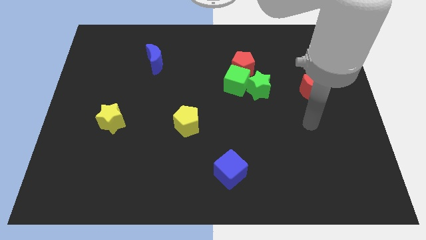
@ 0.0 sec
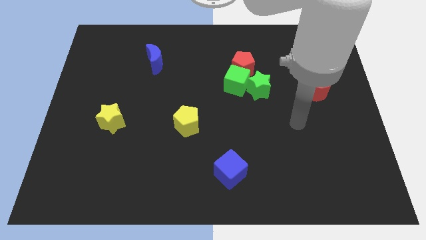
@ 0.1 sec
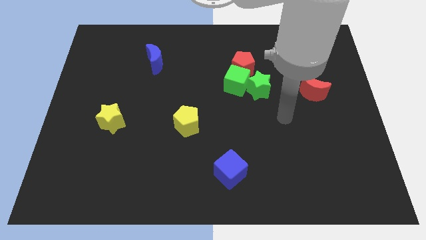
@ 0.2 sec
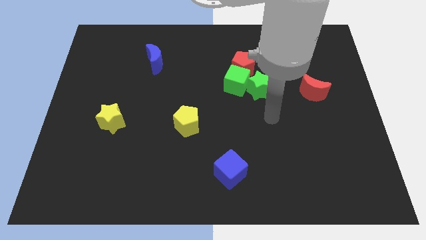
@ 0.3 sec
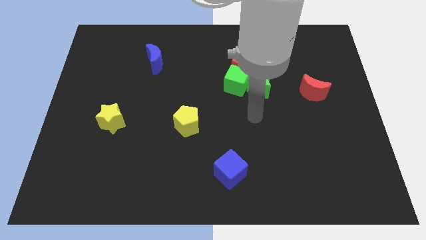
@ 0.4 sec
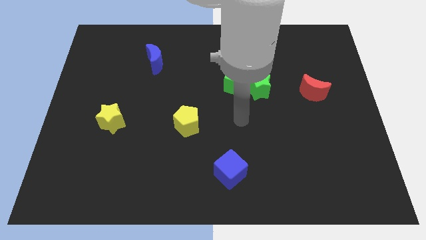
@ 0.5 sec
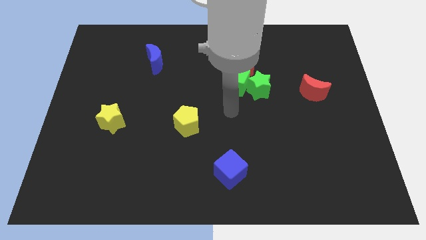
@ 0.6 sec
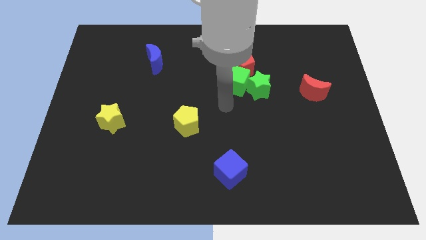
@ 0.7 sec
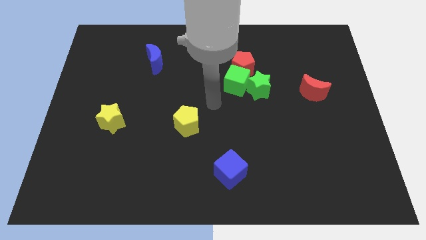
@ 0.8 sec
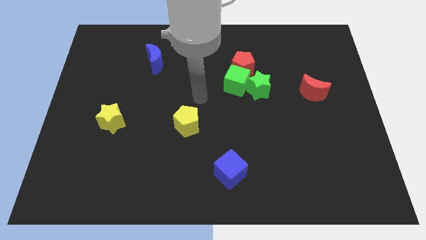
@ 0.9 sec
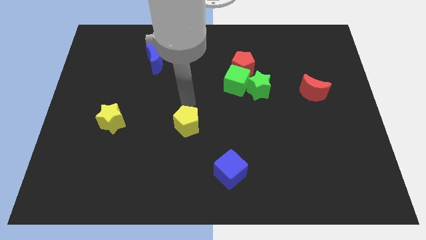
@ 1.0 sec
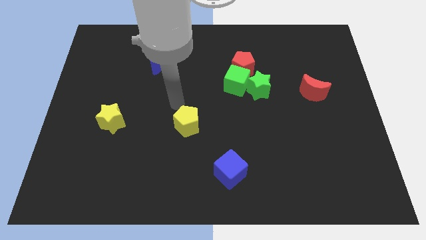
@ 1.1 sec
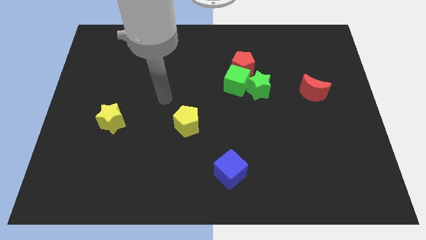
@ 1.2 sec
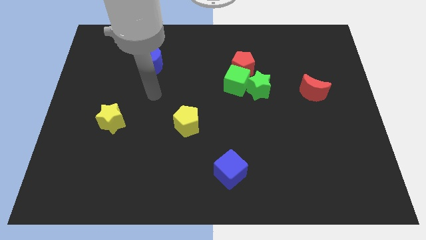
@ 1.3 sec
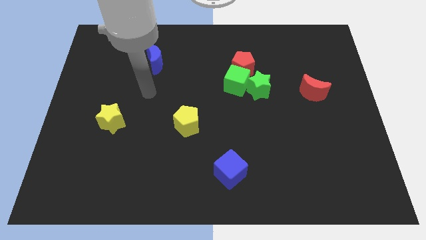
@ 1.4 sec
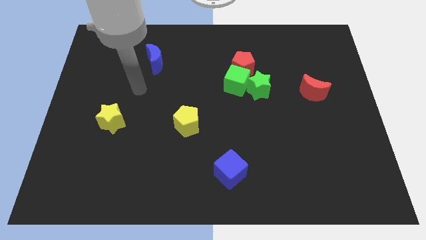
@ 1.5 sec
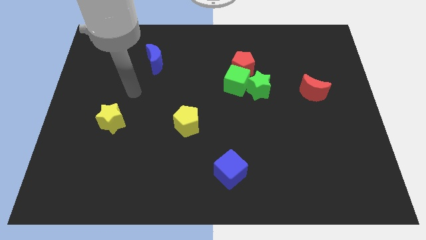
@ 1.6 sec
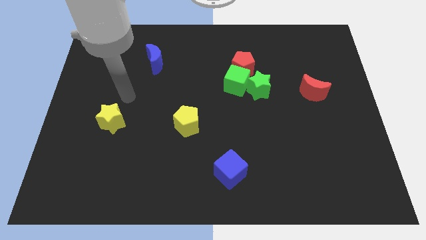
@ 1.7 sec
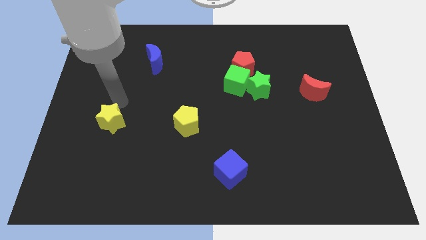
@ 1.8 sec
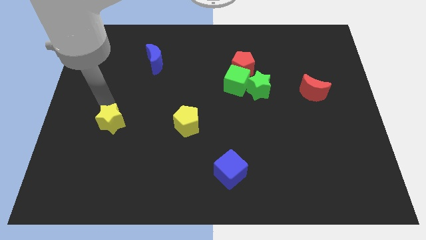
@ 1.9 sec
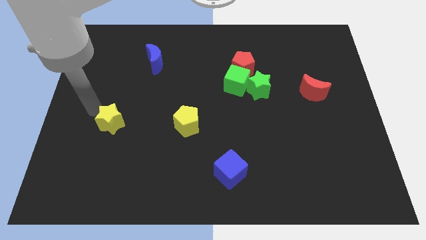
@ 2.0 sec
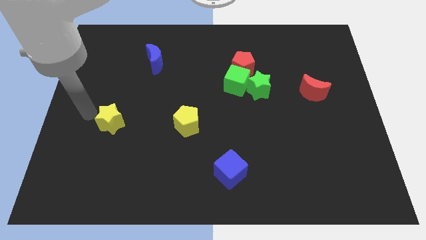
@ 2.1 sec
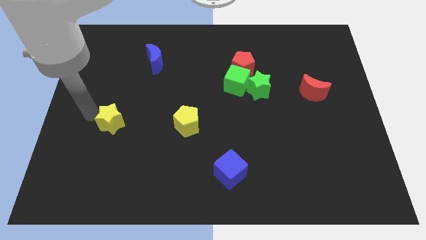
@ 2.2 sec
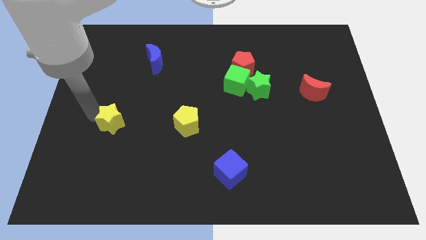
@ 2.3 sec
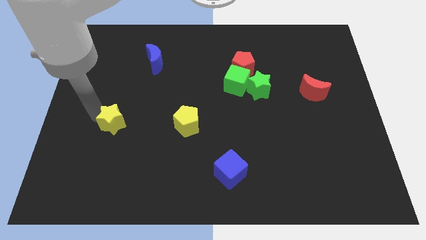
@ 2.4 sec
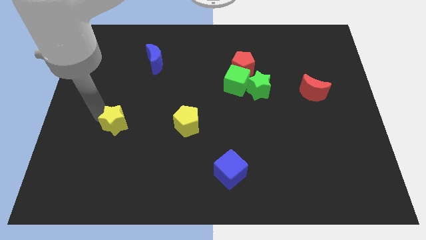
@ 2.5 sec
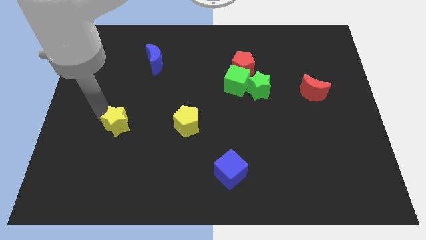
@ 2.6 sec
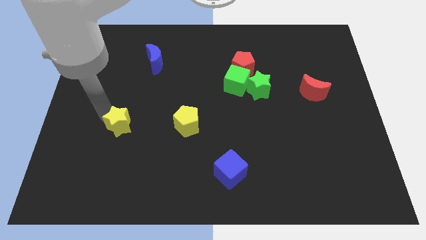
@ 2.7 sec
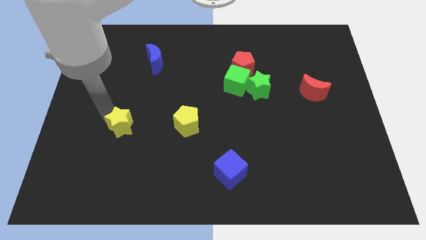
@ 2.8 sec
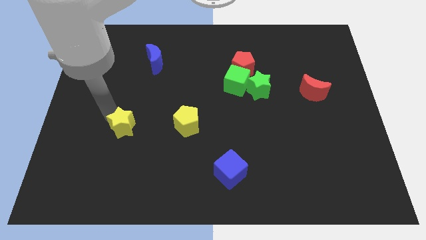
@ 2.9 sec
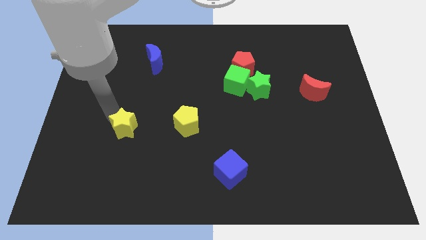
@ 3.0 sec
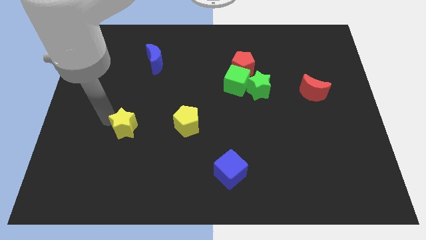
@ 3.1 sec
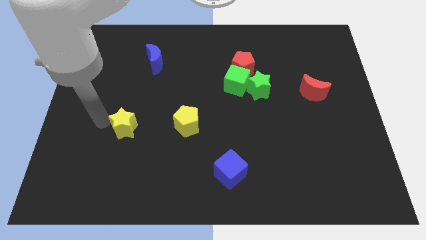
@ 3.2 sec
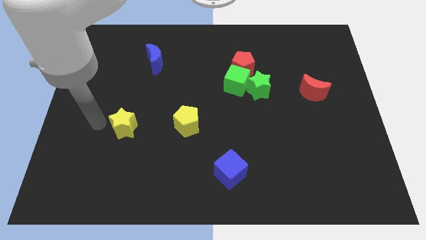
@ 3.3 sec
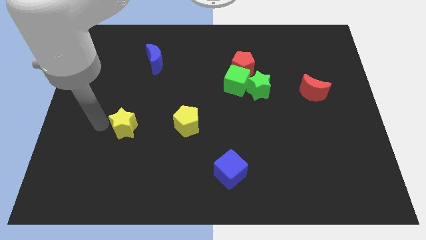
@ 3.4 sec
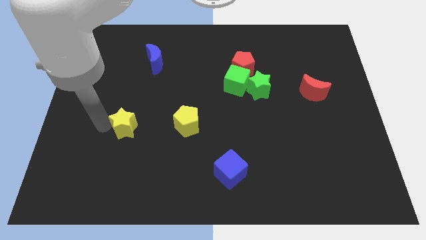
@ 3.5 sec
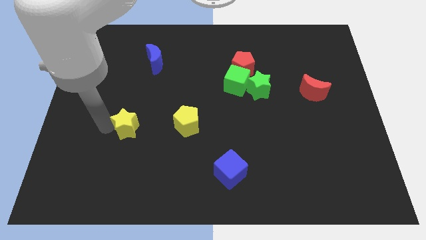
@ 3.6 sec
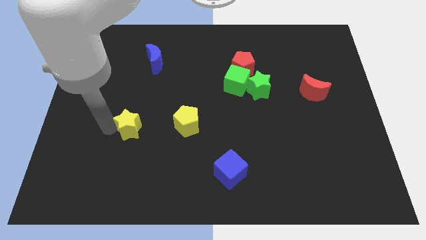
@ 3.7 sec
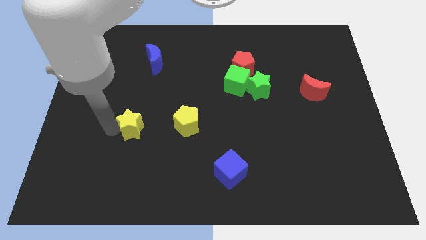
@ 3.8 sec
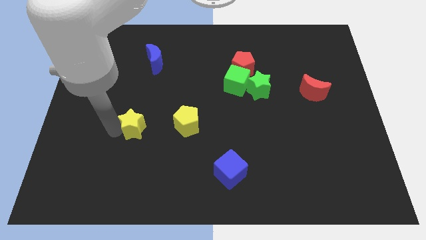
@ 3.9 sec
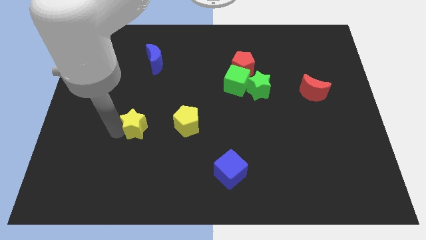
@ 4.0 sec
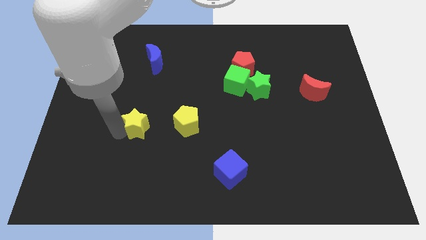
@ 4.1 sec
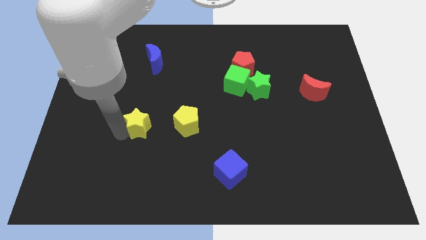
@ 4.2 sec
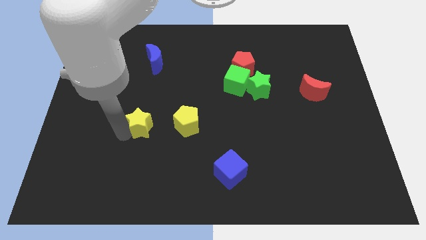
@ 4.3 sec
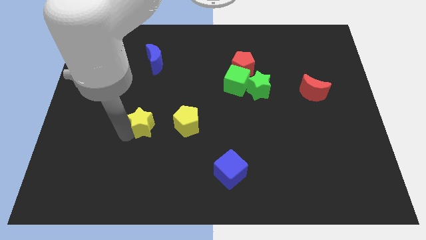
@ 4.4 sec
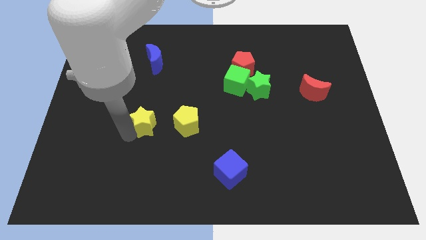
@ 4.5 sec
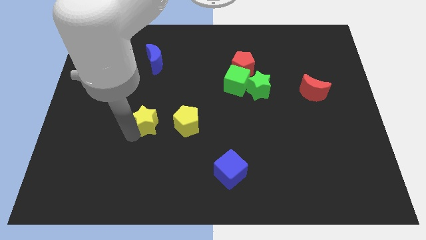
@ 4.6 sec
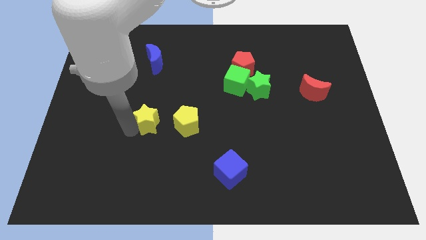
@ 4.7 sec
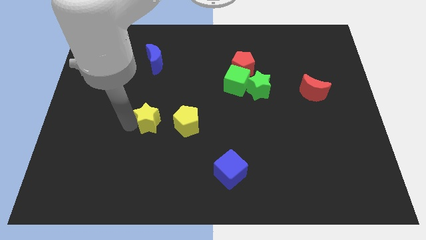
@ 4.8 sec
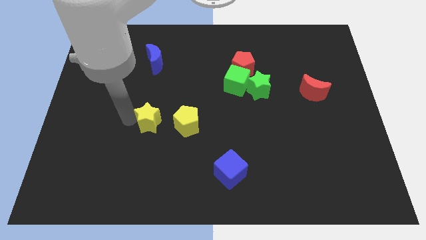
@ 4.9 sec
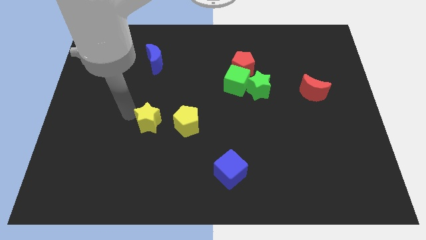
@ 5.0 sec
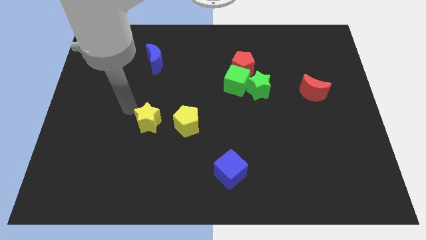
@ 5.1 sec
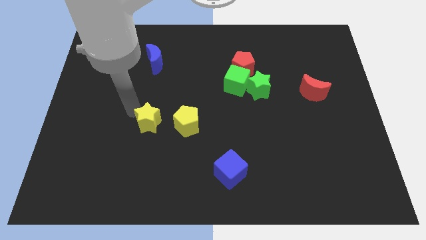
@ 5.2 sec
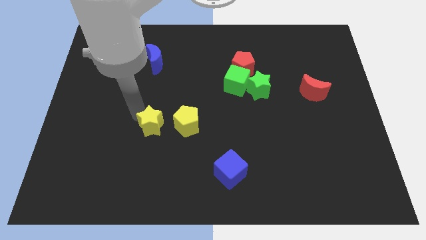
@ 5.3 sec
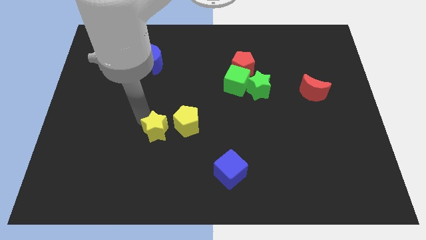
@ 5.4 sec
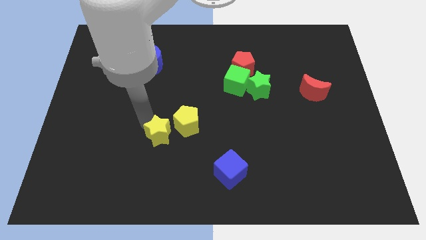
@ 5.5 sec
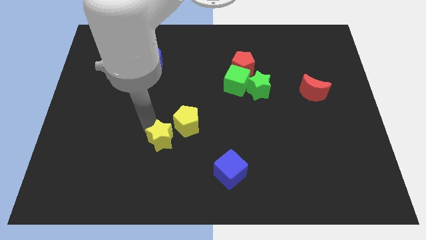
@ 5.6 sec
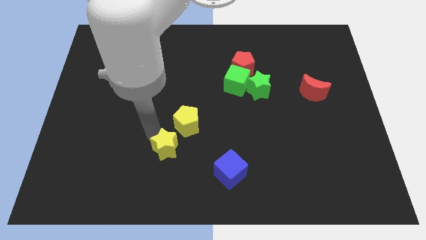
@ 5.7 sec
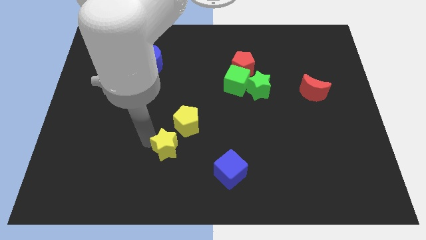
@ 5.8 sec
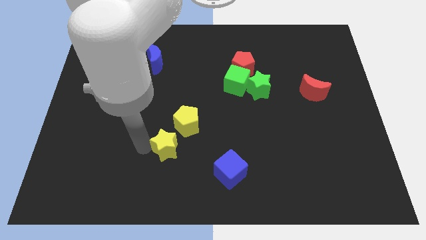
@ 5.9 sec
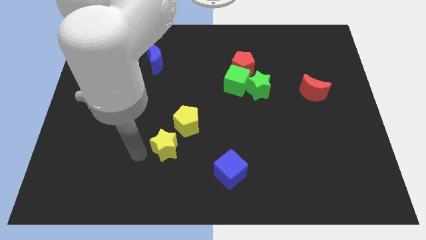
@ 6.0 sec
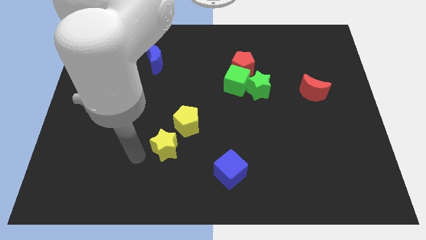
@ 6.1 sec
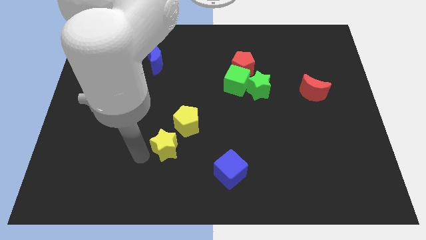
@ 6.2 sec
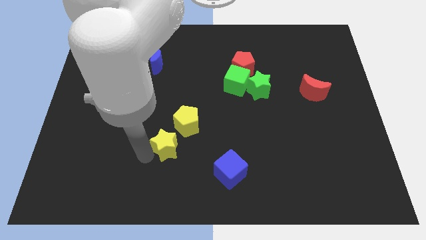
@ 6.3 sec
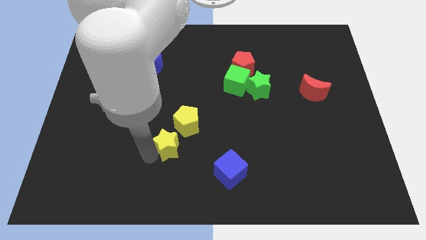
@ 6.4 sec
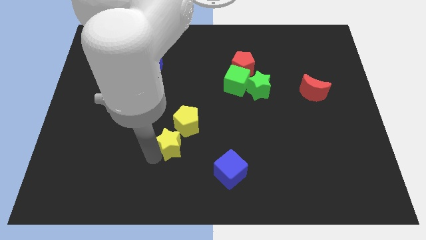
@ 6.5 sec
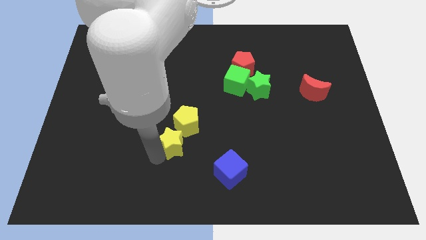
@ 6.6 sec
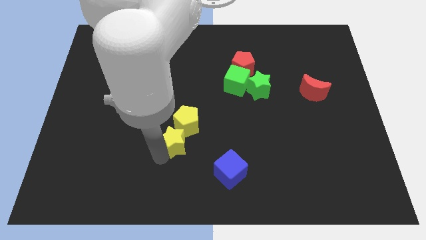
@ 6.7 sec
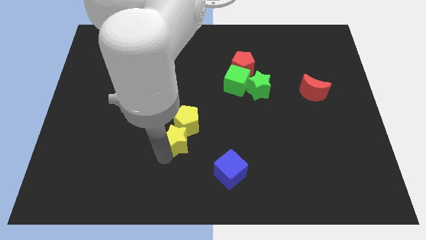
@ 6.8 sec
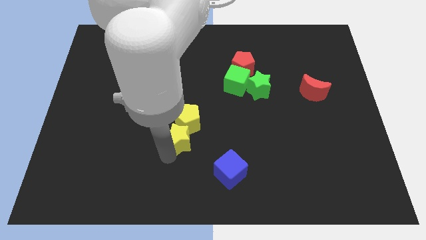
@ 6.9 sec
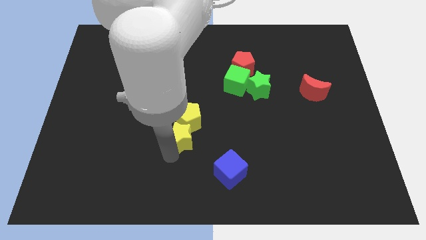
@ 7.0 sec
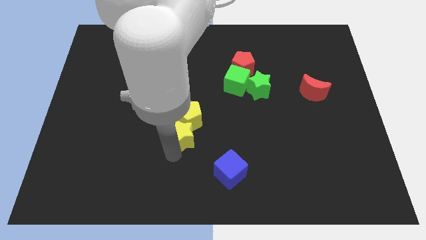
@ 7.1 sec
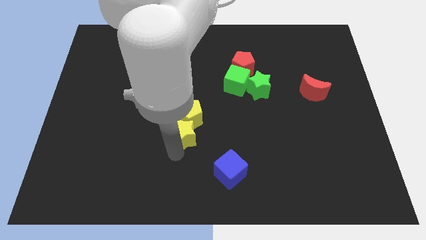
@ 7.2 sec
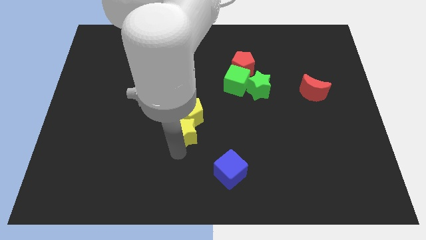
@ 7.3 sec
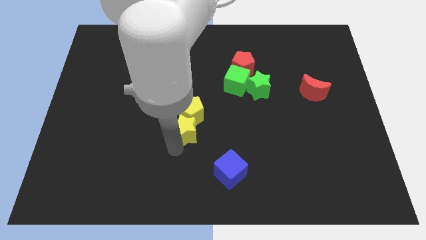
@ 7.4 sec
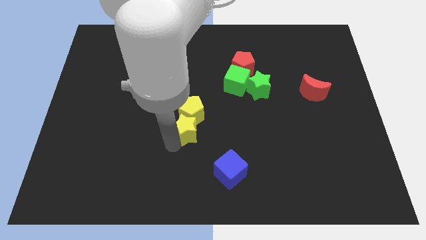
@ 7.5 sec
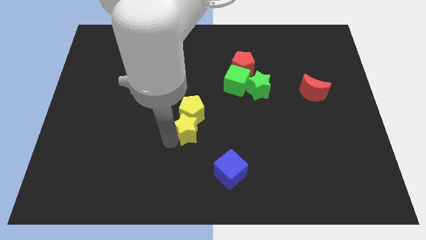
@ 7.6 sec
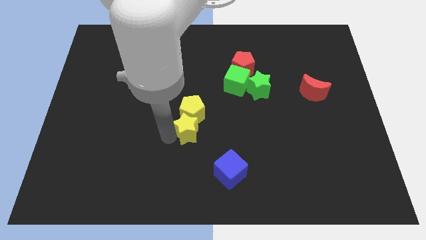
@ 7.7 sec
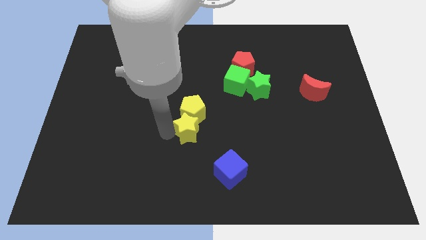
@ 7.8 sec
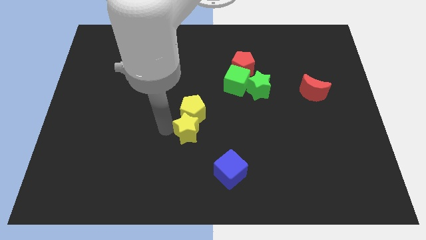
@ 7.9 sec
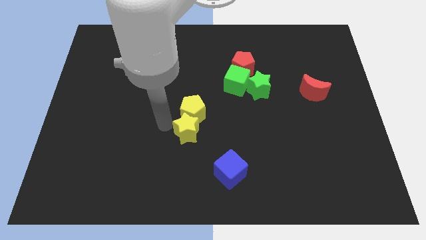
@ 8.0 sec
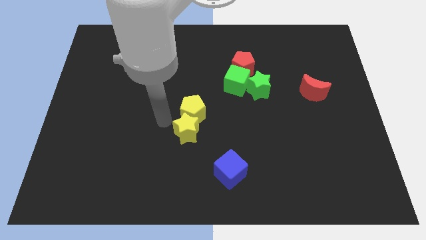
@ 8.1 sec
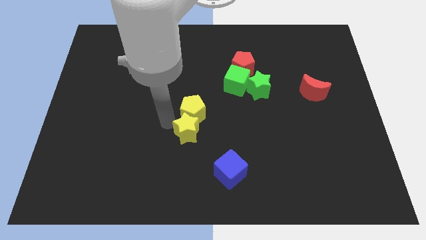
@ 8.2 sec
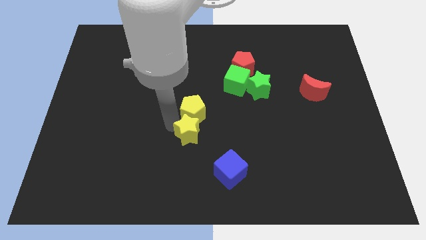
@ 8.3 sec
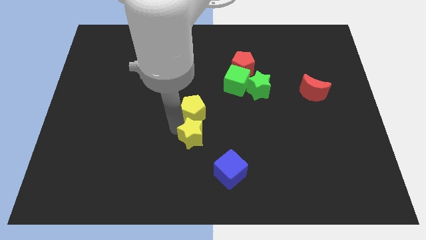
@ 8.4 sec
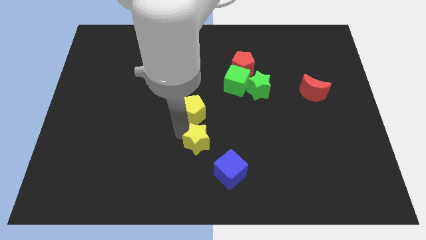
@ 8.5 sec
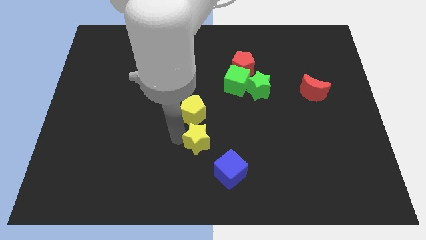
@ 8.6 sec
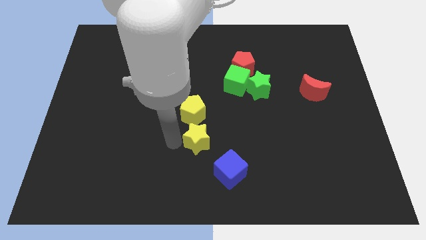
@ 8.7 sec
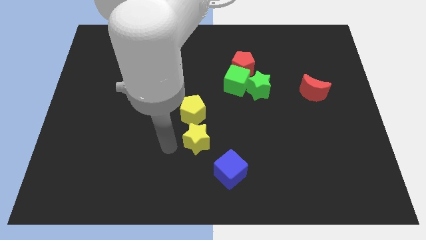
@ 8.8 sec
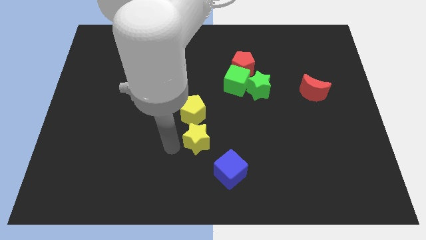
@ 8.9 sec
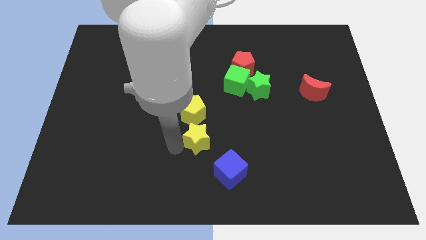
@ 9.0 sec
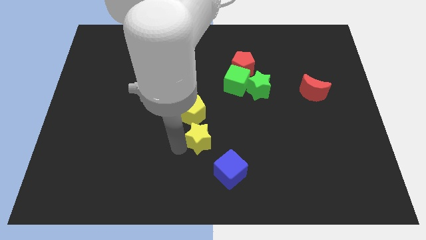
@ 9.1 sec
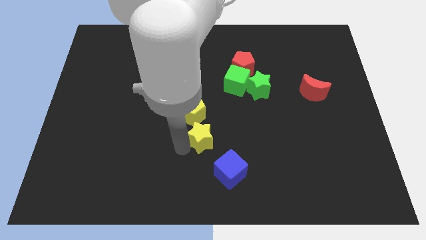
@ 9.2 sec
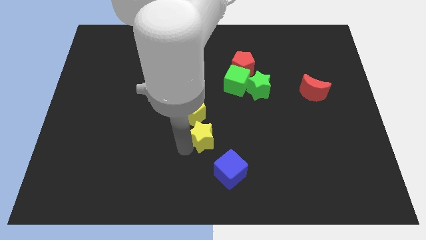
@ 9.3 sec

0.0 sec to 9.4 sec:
move the yellow star right
